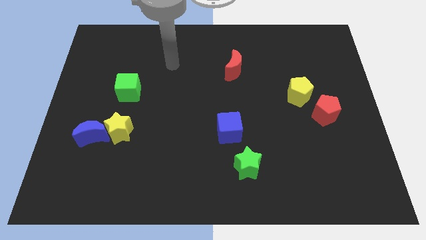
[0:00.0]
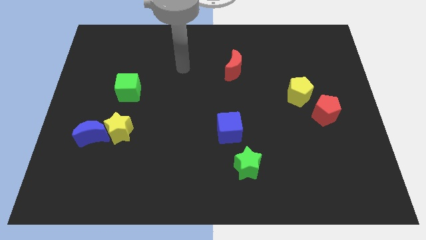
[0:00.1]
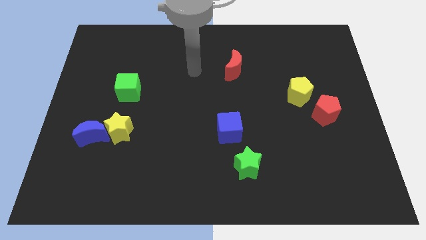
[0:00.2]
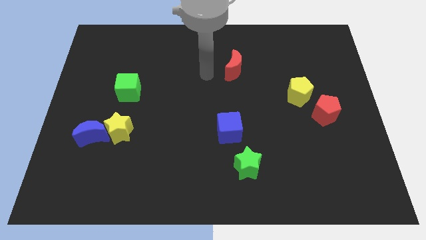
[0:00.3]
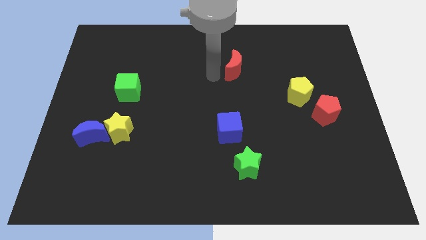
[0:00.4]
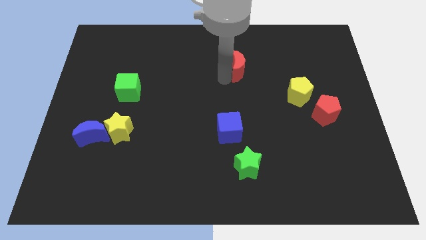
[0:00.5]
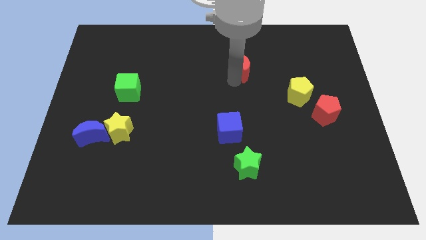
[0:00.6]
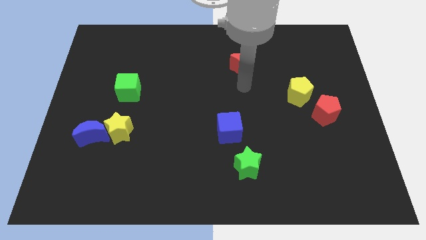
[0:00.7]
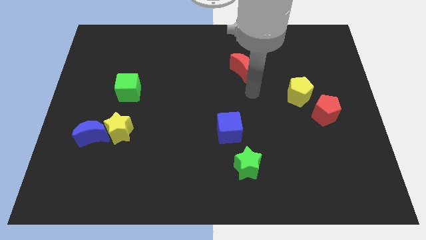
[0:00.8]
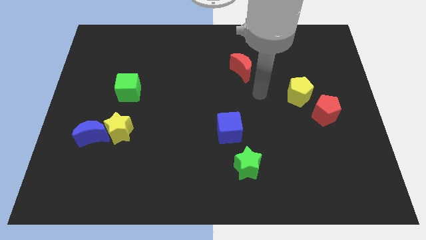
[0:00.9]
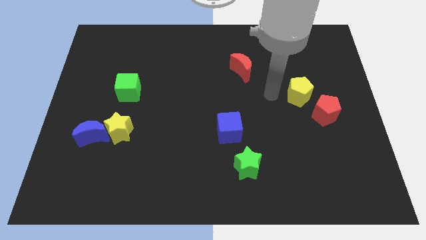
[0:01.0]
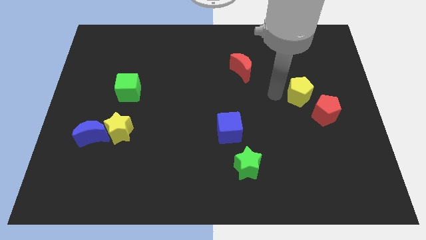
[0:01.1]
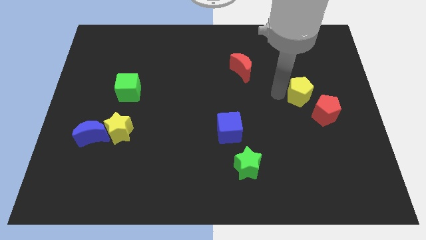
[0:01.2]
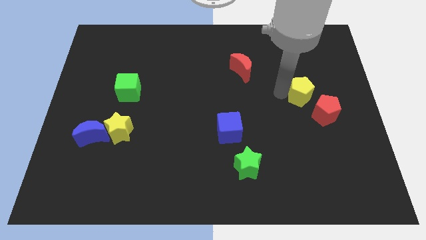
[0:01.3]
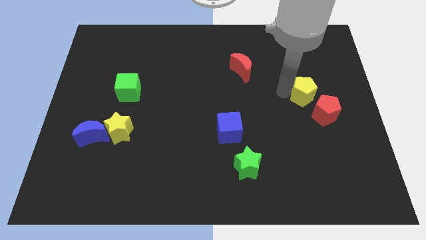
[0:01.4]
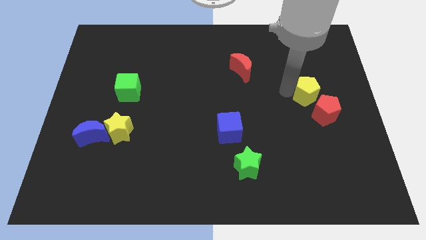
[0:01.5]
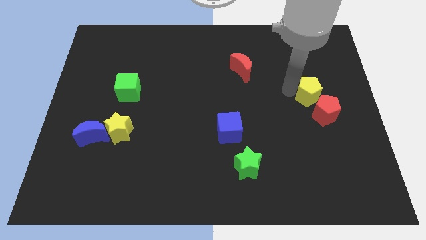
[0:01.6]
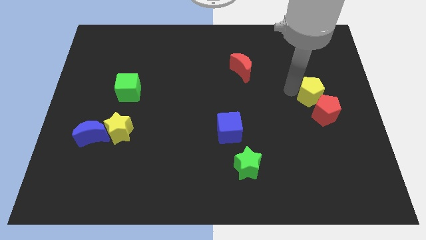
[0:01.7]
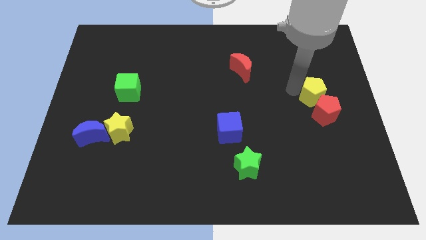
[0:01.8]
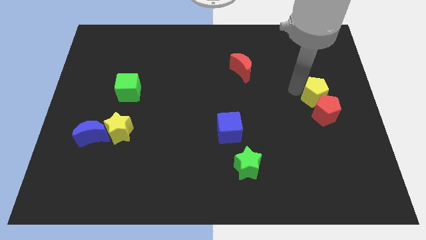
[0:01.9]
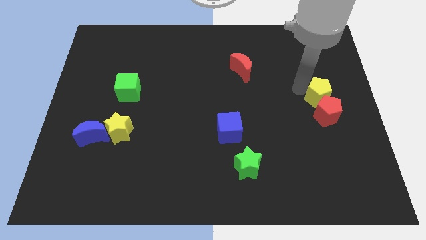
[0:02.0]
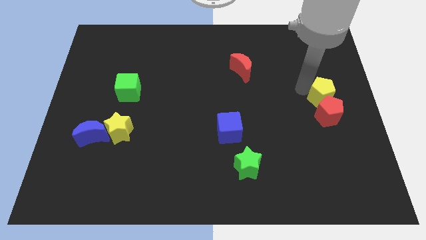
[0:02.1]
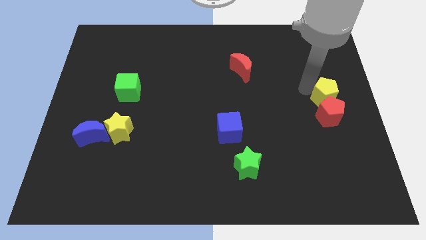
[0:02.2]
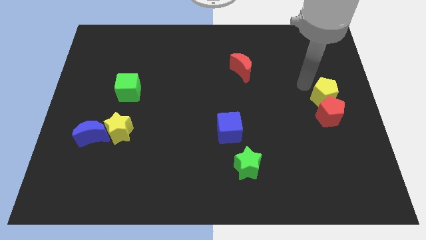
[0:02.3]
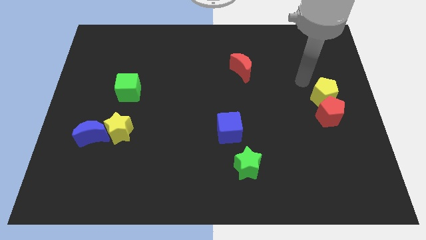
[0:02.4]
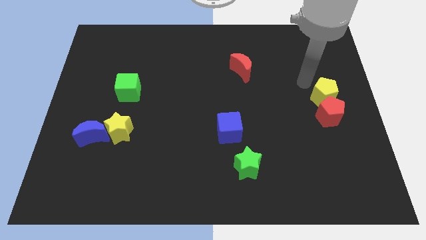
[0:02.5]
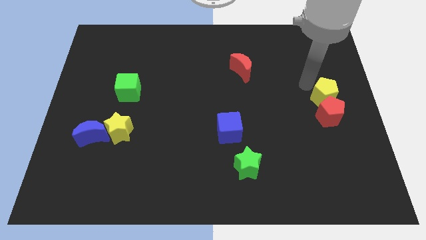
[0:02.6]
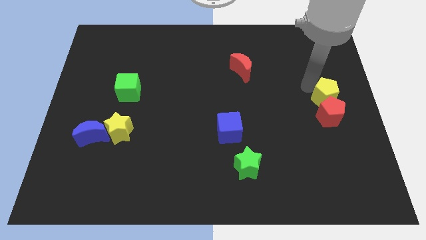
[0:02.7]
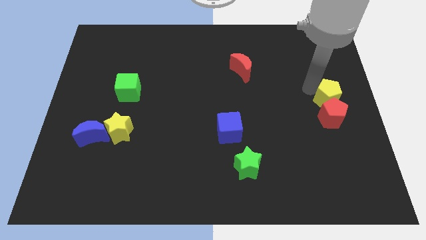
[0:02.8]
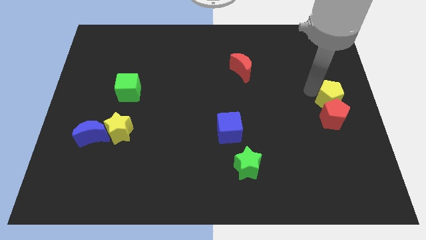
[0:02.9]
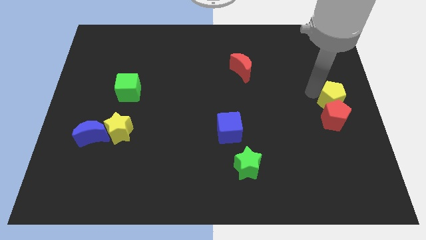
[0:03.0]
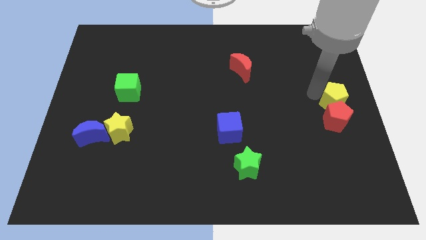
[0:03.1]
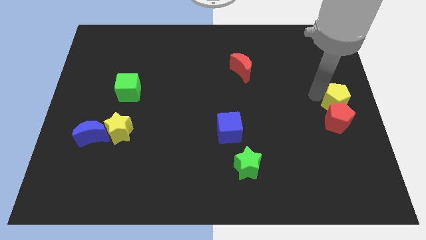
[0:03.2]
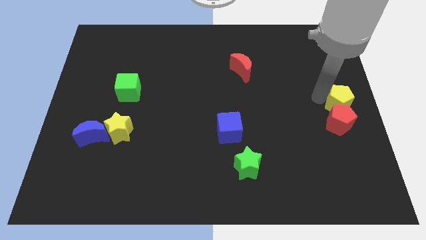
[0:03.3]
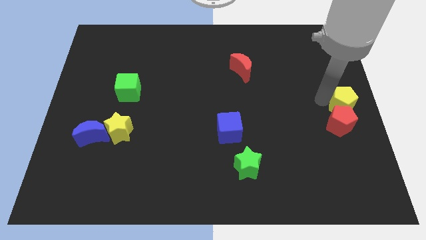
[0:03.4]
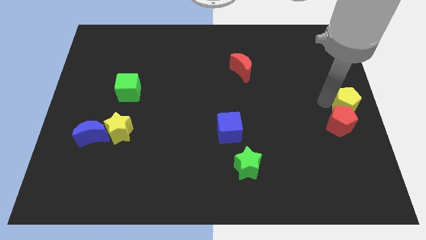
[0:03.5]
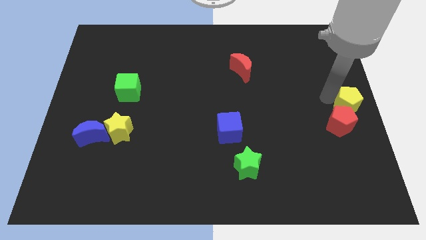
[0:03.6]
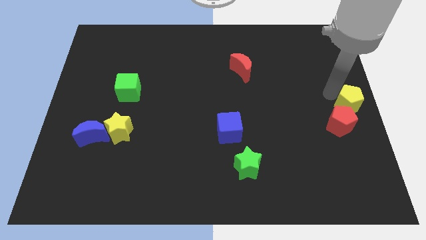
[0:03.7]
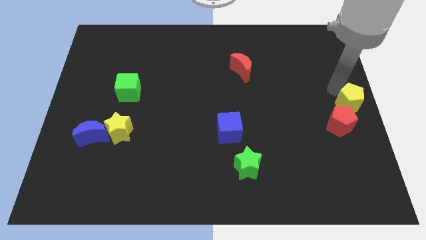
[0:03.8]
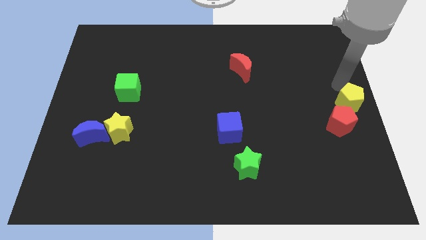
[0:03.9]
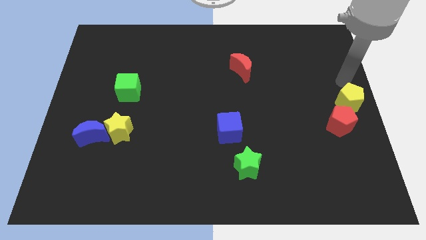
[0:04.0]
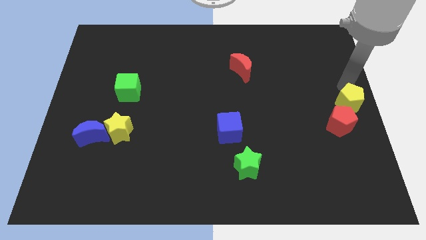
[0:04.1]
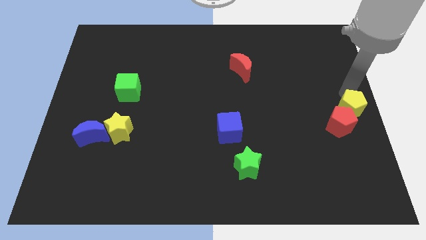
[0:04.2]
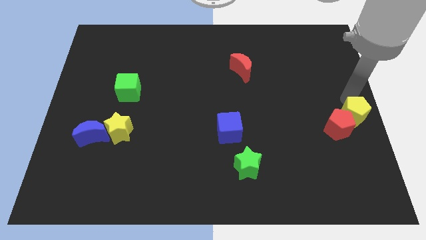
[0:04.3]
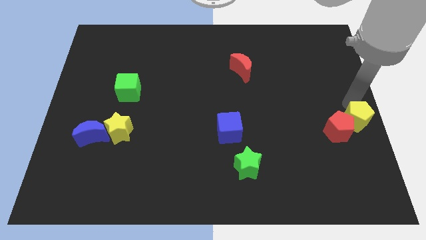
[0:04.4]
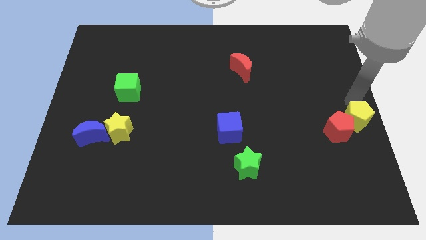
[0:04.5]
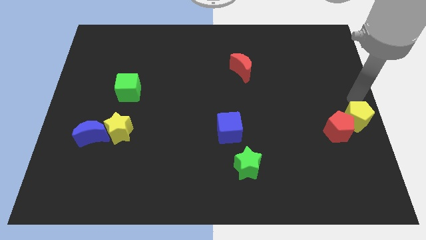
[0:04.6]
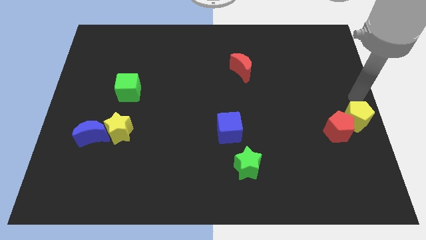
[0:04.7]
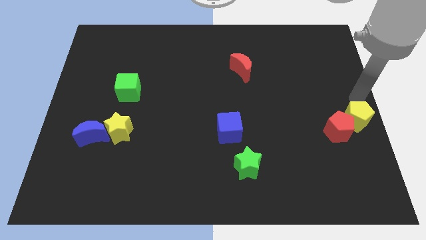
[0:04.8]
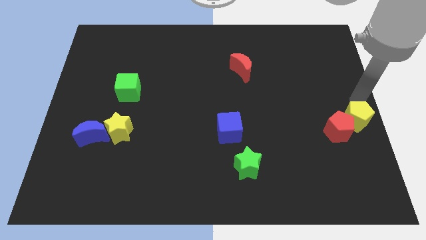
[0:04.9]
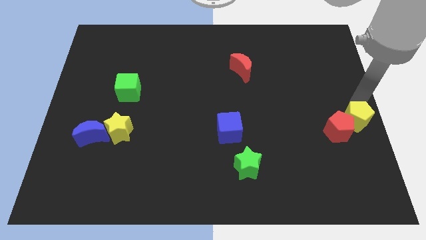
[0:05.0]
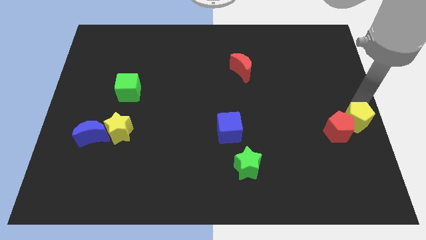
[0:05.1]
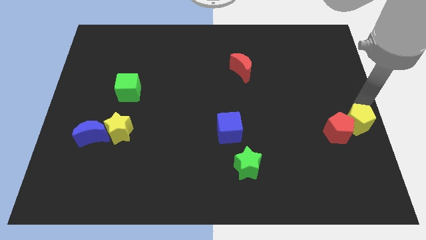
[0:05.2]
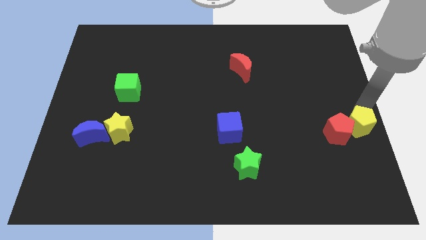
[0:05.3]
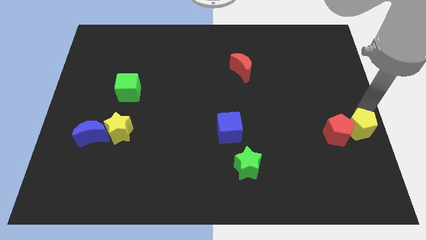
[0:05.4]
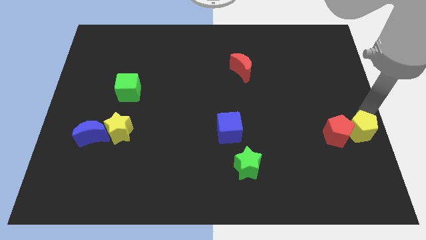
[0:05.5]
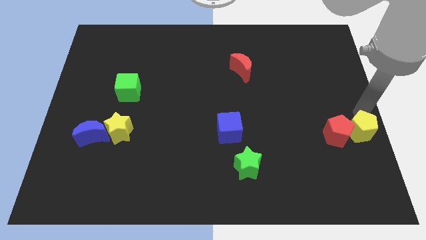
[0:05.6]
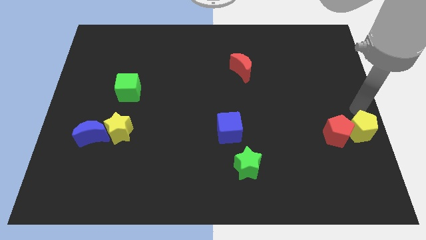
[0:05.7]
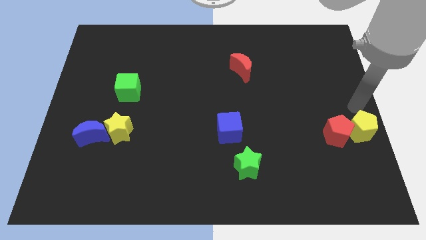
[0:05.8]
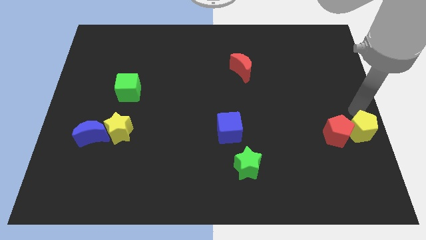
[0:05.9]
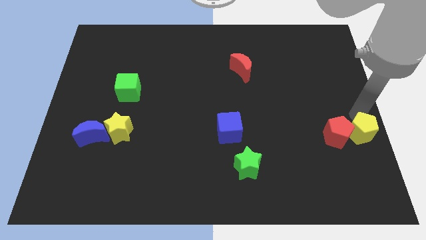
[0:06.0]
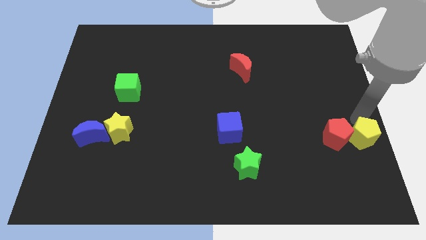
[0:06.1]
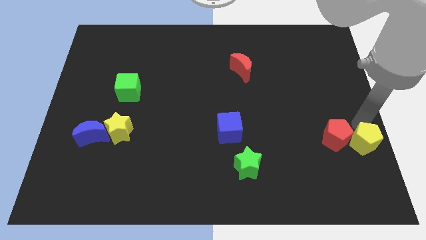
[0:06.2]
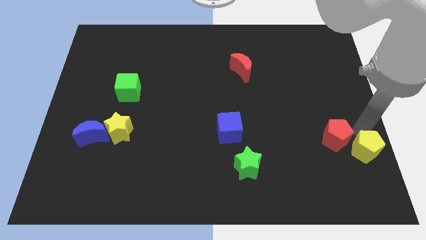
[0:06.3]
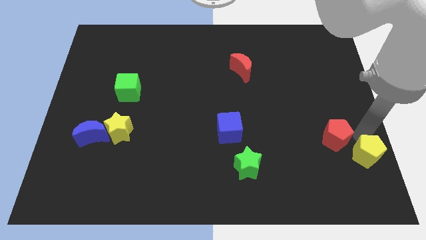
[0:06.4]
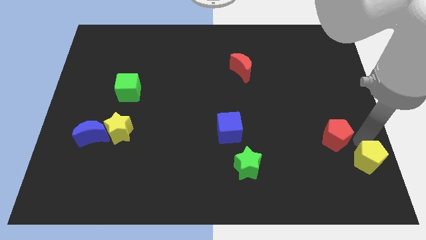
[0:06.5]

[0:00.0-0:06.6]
slide the yellow pentagon to the bottom right
